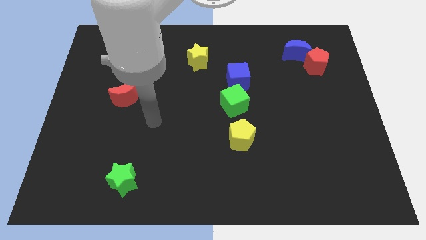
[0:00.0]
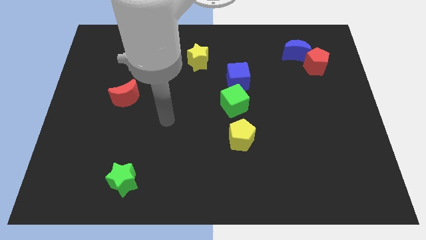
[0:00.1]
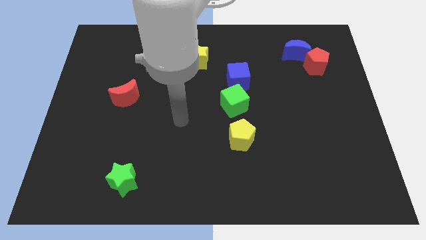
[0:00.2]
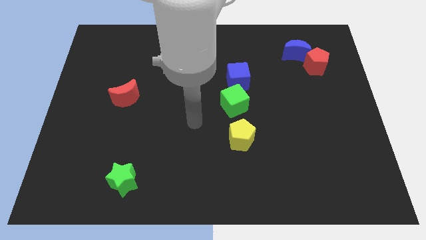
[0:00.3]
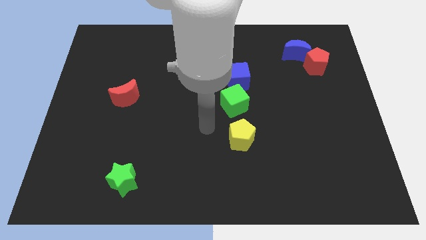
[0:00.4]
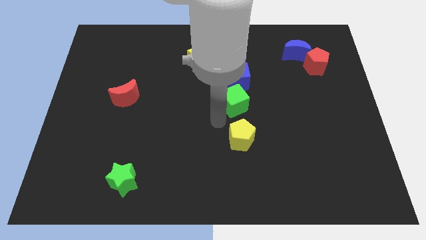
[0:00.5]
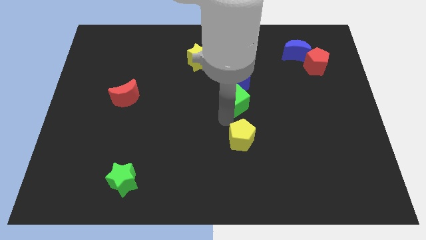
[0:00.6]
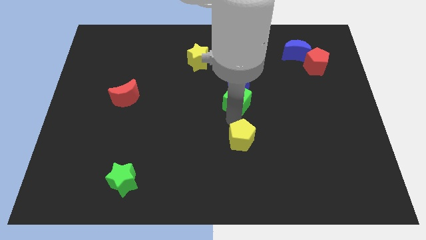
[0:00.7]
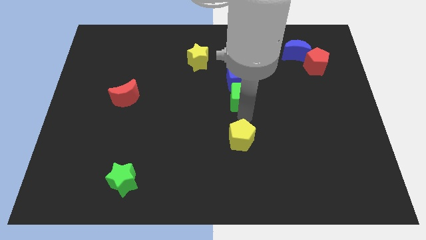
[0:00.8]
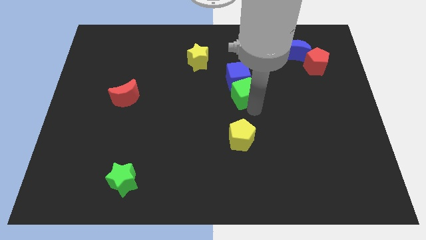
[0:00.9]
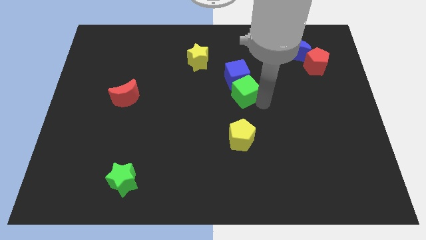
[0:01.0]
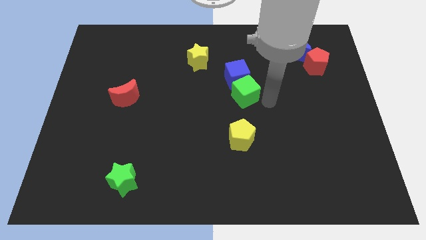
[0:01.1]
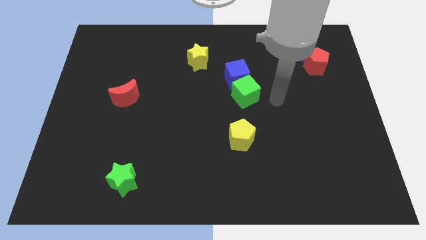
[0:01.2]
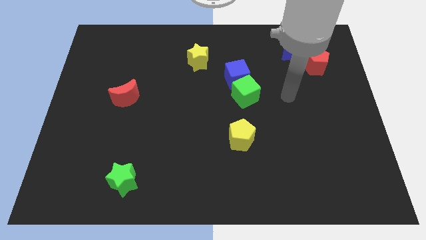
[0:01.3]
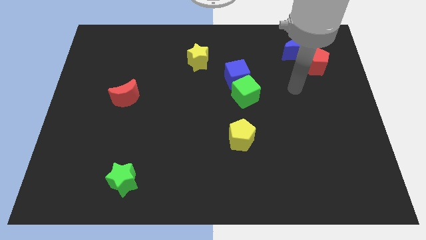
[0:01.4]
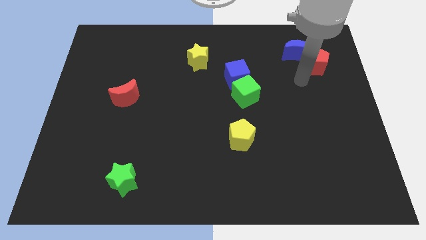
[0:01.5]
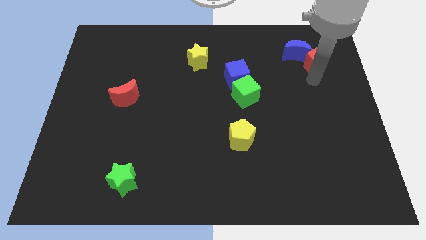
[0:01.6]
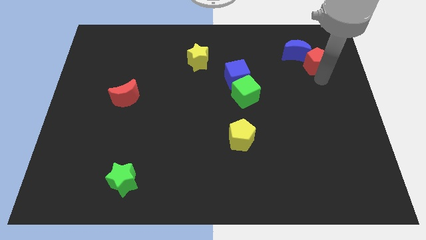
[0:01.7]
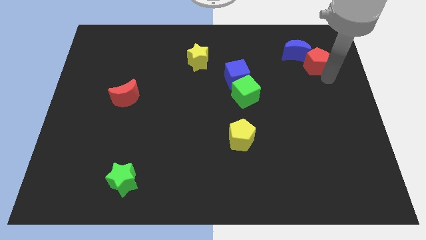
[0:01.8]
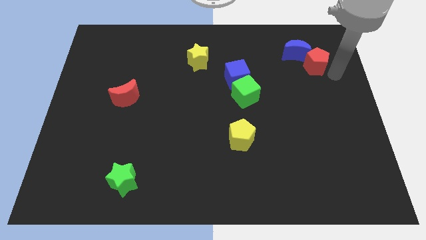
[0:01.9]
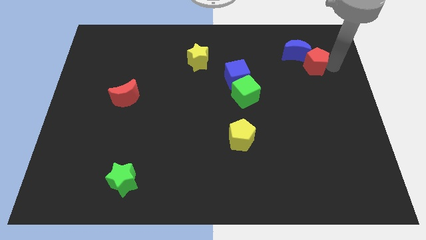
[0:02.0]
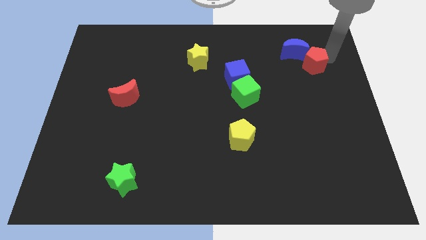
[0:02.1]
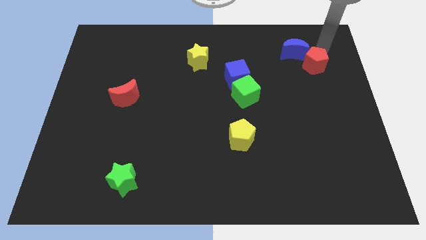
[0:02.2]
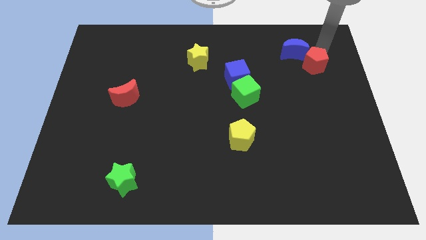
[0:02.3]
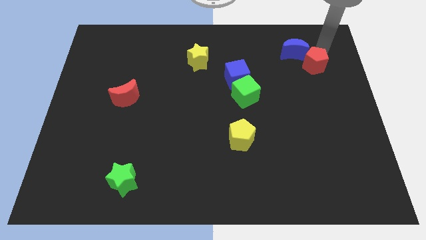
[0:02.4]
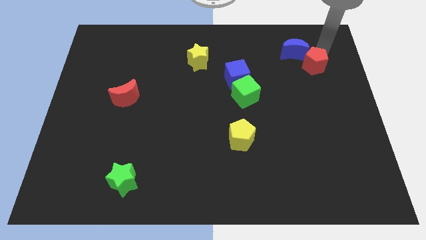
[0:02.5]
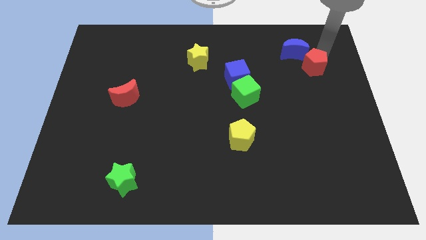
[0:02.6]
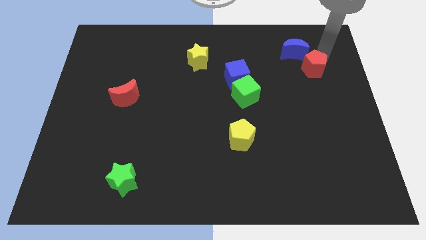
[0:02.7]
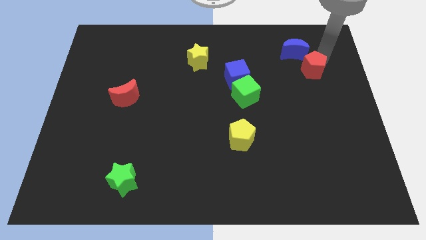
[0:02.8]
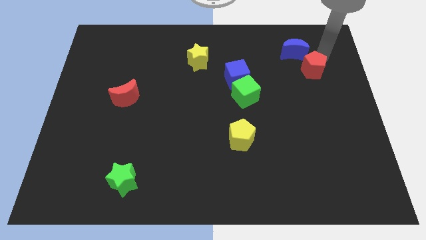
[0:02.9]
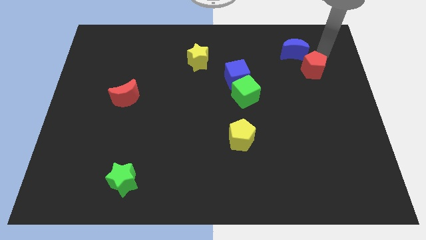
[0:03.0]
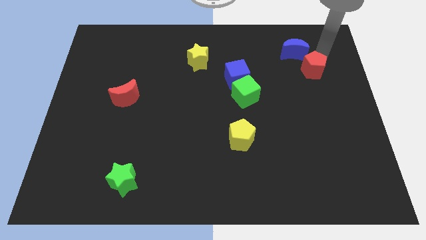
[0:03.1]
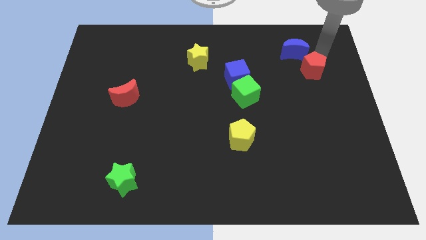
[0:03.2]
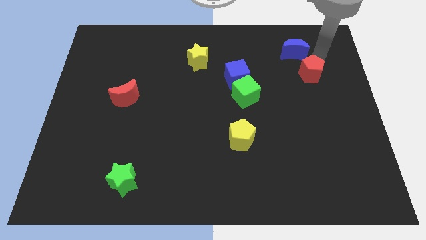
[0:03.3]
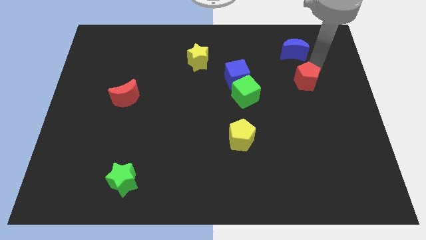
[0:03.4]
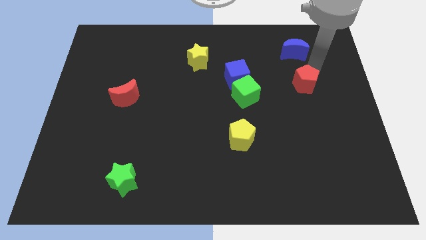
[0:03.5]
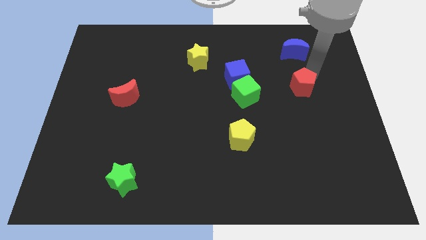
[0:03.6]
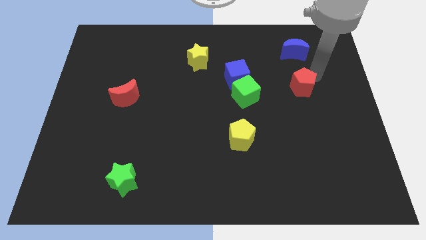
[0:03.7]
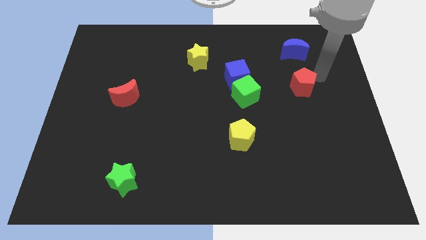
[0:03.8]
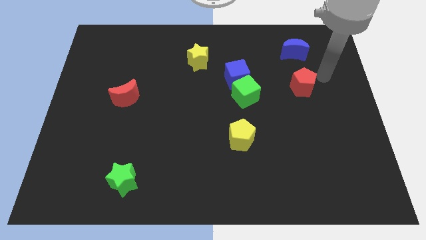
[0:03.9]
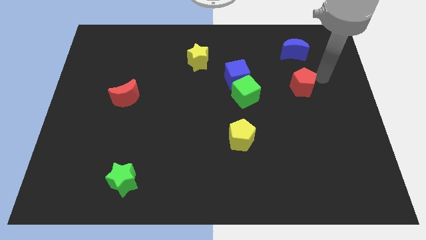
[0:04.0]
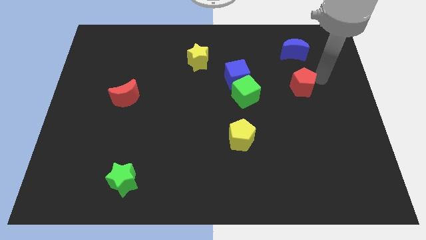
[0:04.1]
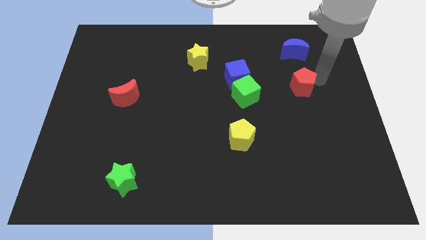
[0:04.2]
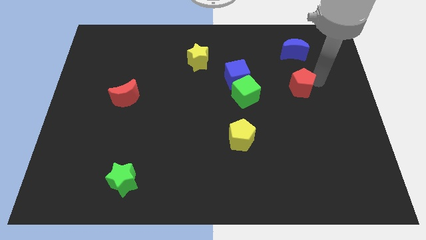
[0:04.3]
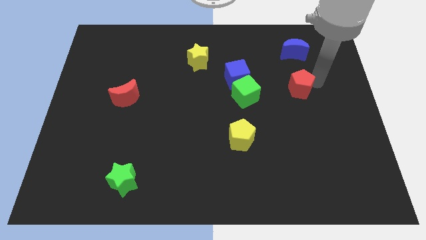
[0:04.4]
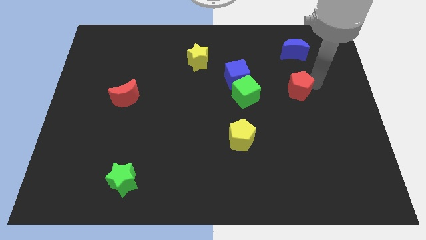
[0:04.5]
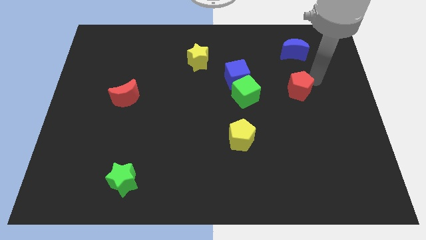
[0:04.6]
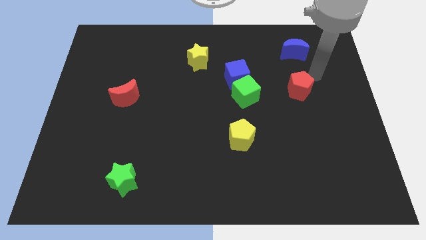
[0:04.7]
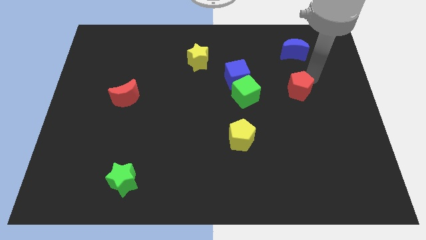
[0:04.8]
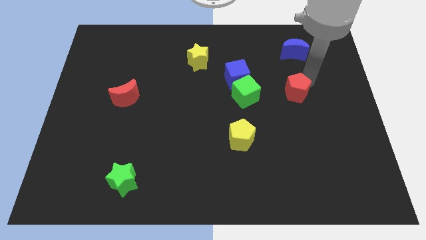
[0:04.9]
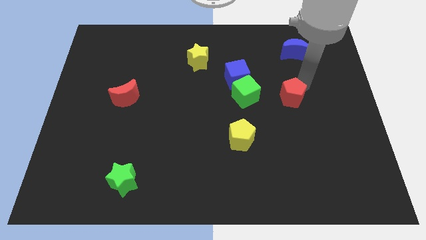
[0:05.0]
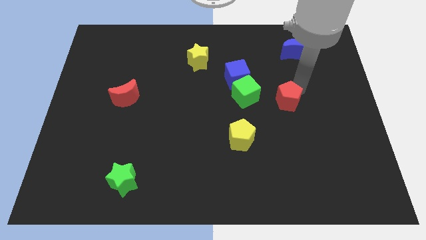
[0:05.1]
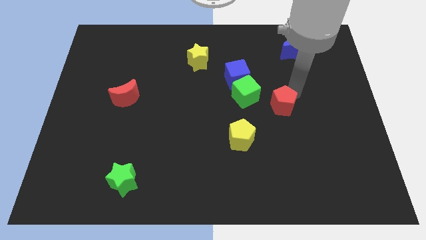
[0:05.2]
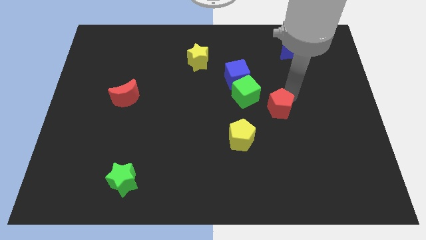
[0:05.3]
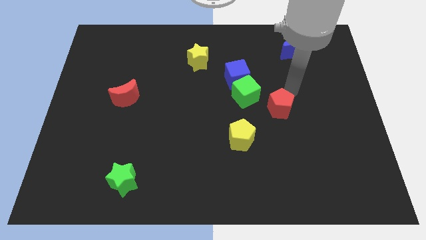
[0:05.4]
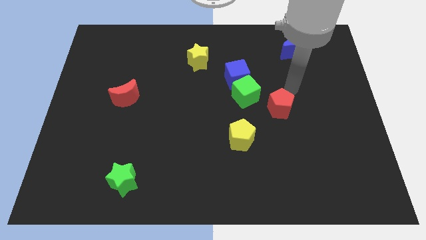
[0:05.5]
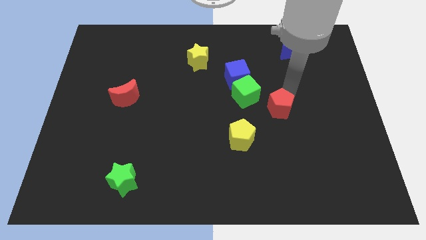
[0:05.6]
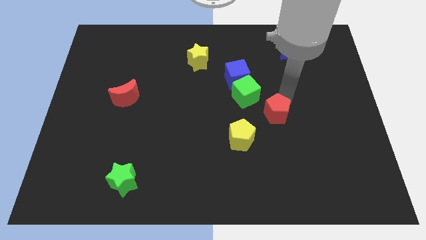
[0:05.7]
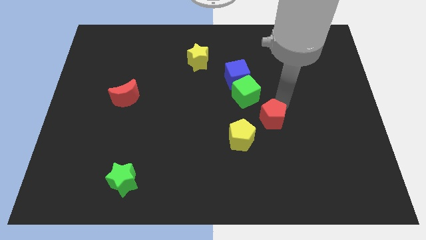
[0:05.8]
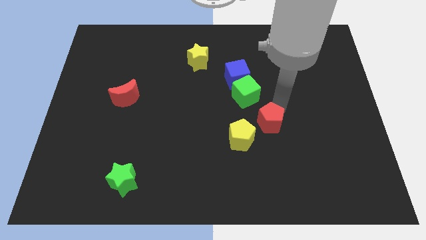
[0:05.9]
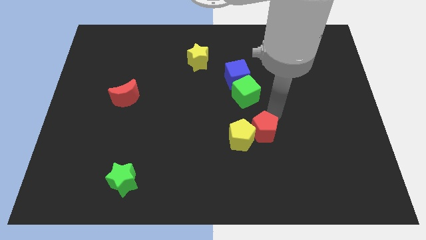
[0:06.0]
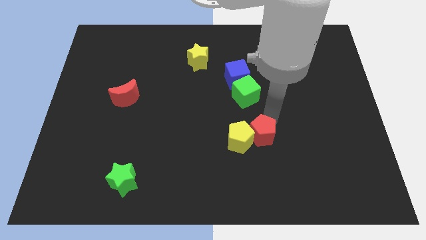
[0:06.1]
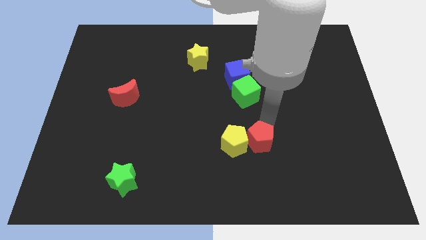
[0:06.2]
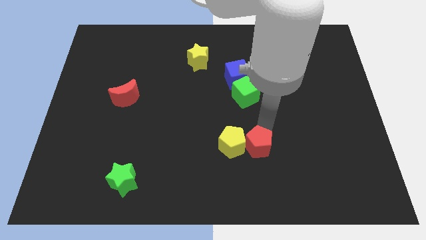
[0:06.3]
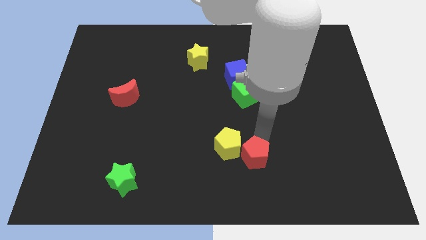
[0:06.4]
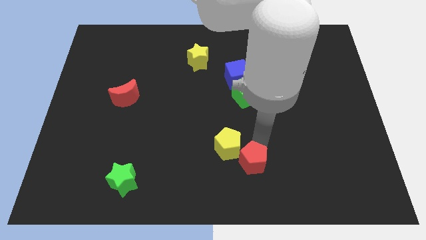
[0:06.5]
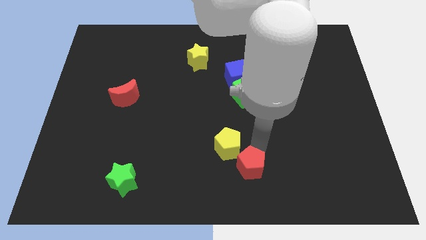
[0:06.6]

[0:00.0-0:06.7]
move the red pentagon to the bottom

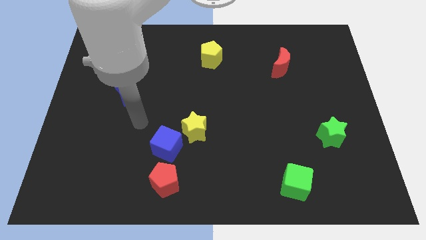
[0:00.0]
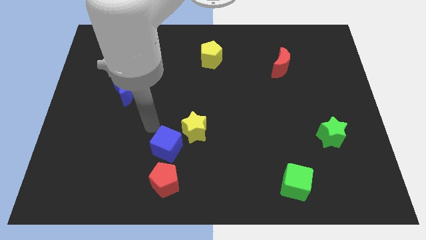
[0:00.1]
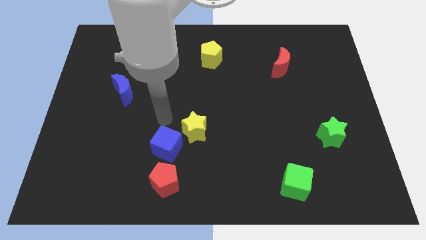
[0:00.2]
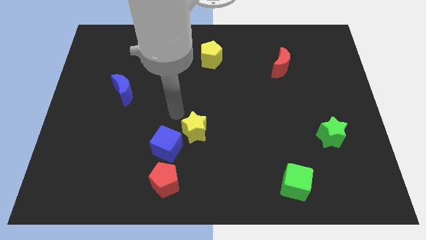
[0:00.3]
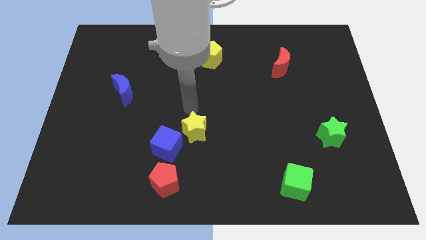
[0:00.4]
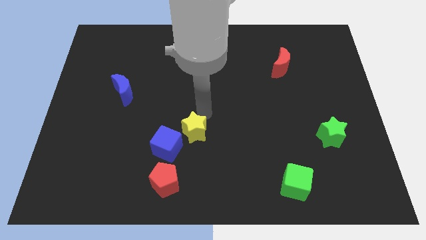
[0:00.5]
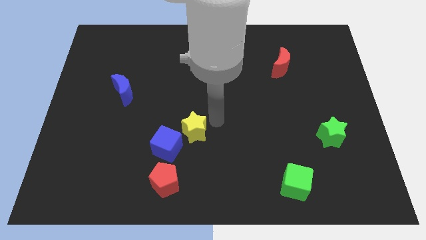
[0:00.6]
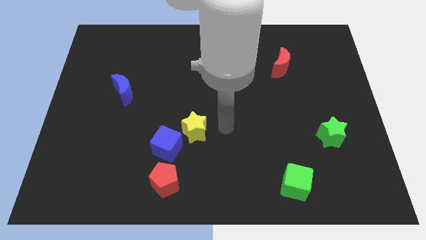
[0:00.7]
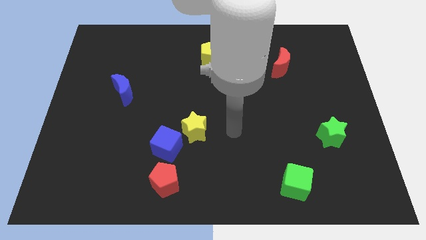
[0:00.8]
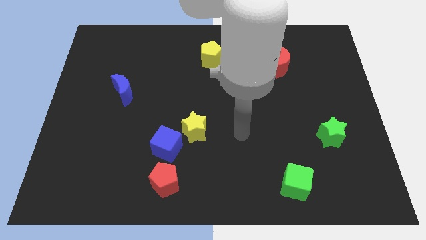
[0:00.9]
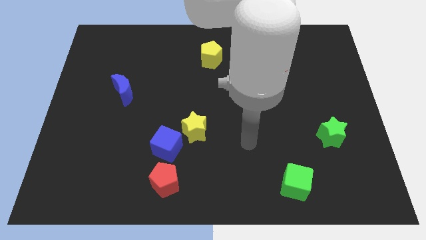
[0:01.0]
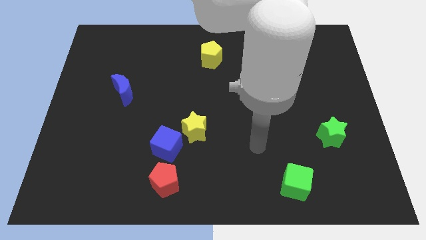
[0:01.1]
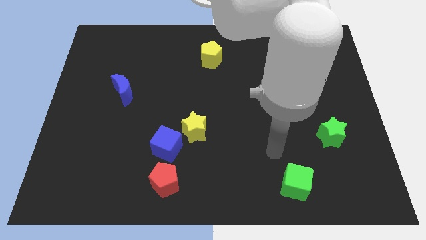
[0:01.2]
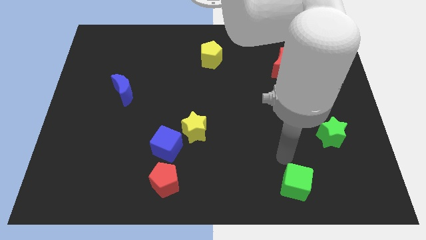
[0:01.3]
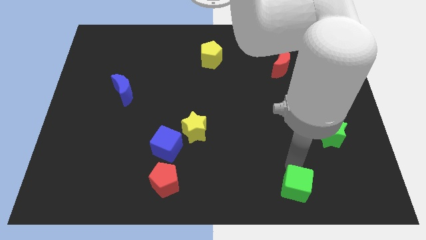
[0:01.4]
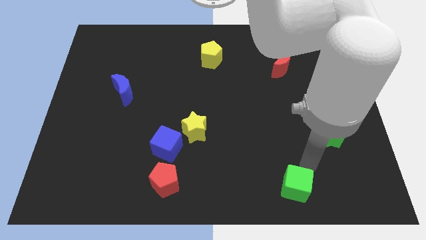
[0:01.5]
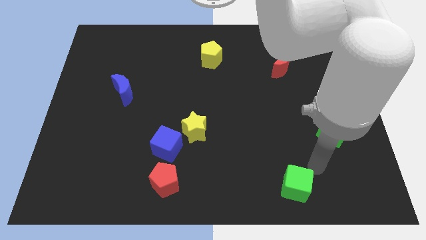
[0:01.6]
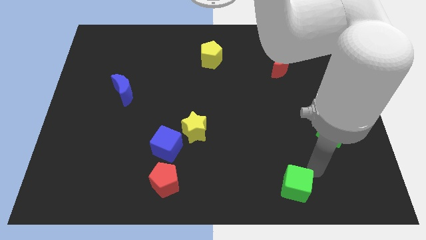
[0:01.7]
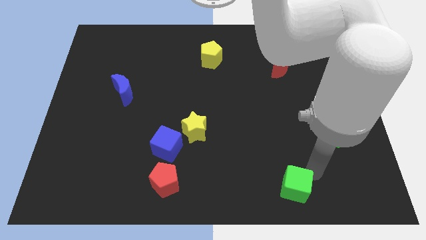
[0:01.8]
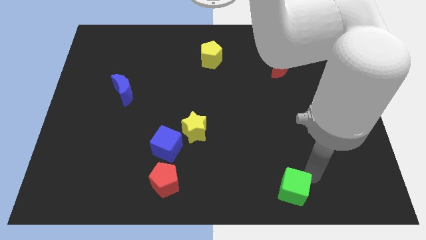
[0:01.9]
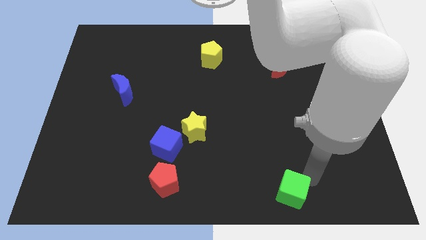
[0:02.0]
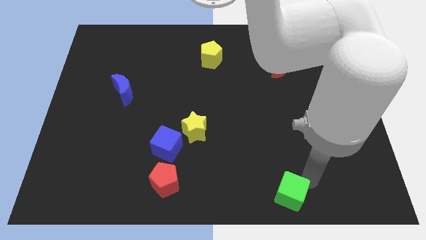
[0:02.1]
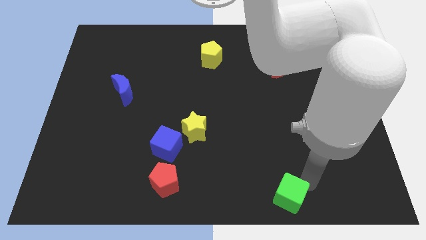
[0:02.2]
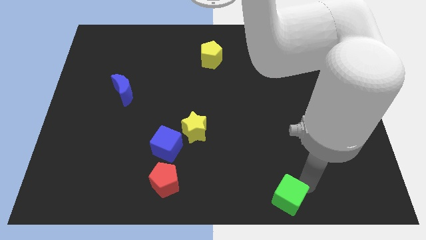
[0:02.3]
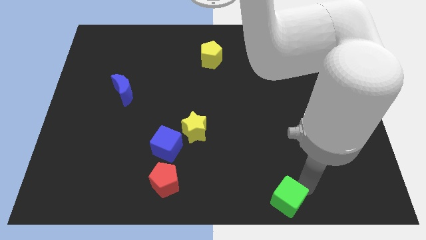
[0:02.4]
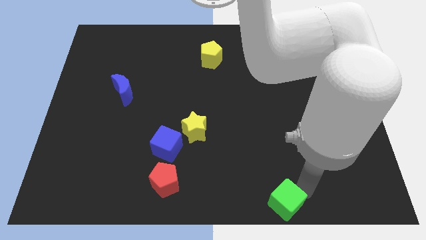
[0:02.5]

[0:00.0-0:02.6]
put the green cube to the bottom side
